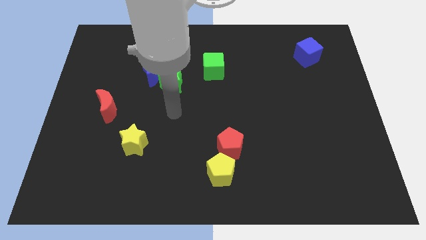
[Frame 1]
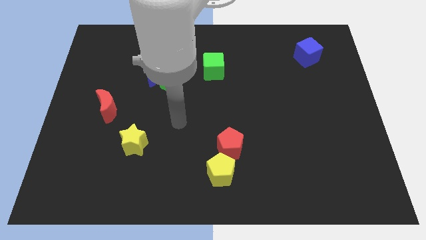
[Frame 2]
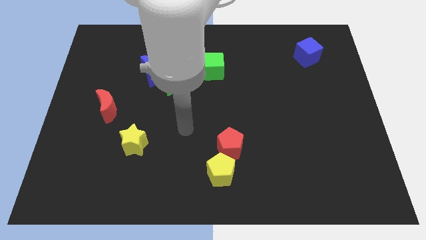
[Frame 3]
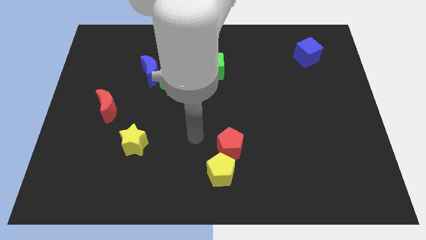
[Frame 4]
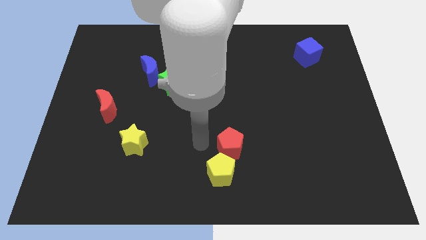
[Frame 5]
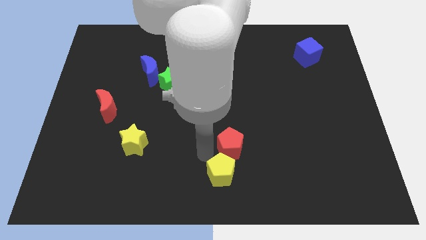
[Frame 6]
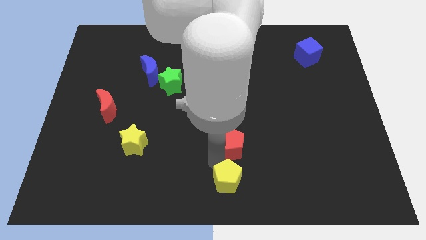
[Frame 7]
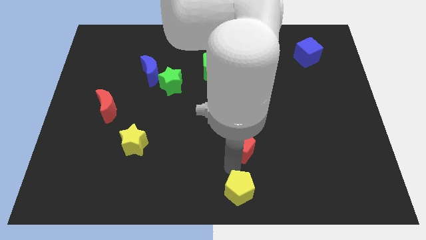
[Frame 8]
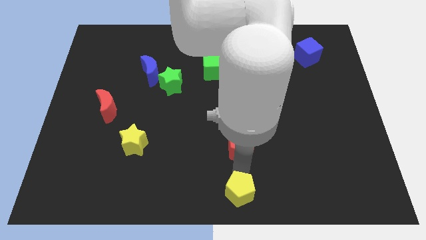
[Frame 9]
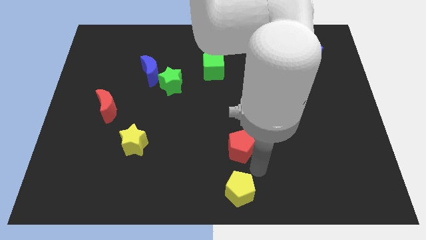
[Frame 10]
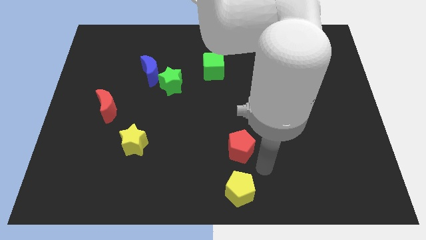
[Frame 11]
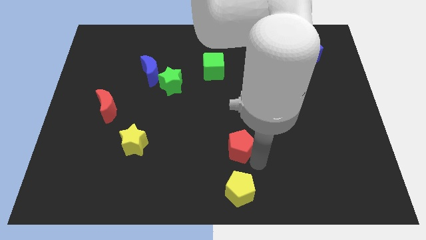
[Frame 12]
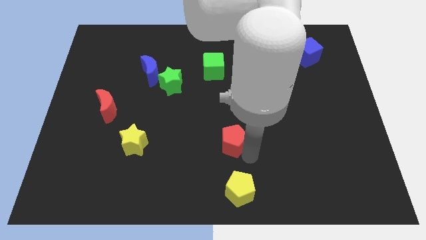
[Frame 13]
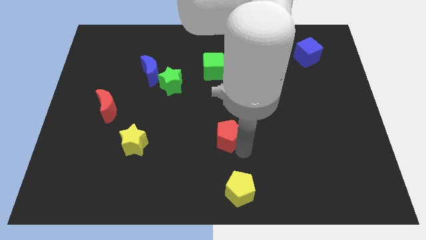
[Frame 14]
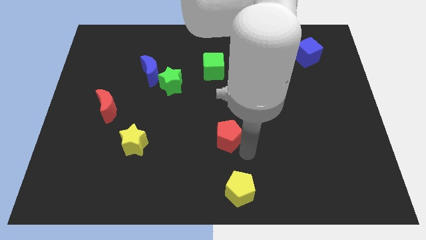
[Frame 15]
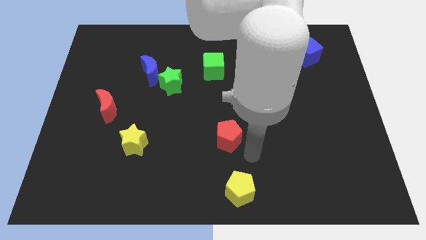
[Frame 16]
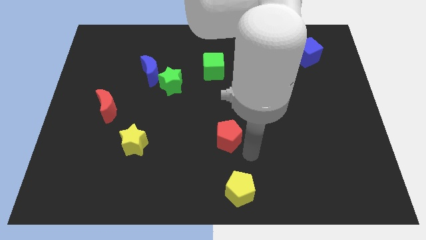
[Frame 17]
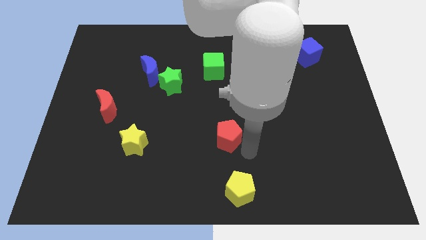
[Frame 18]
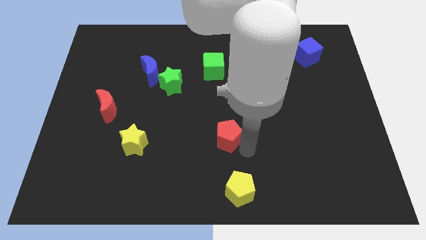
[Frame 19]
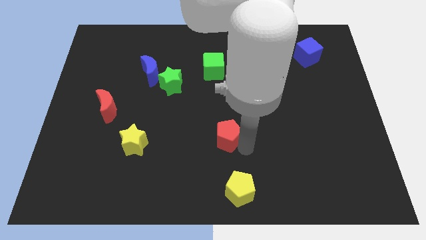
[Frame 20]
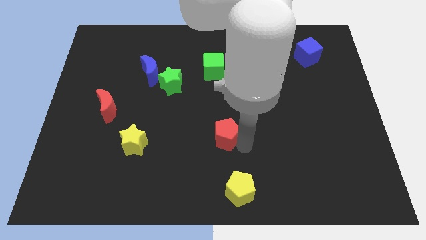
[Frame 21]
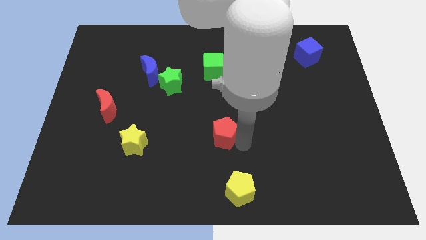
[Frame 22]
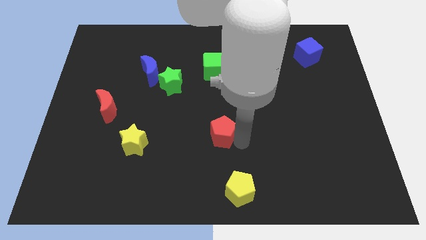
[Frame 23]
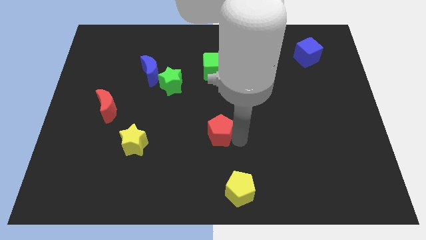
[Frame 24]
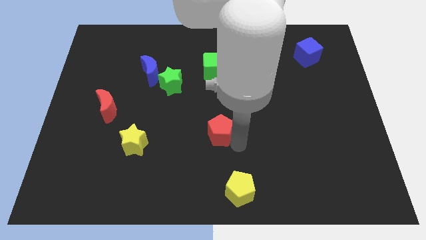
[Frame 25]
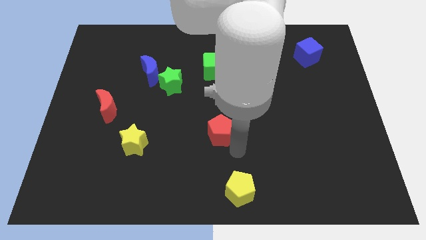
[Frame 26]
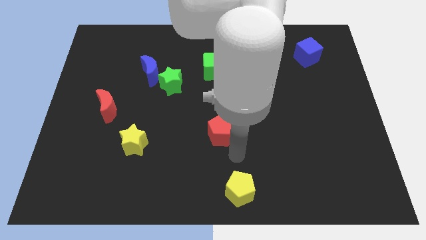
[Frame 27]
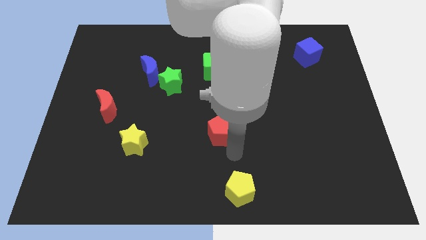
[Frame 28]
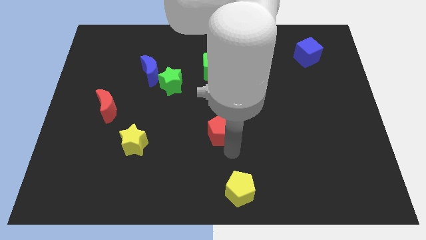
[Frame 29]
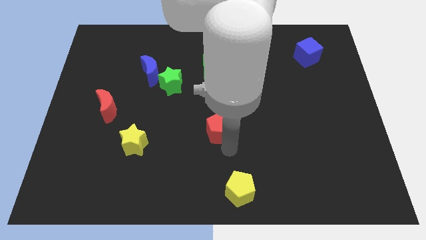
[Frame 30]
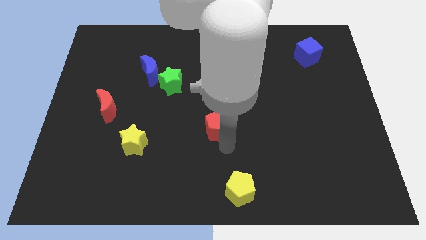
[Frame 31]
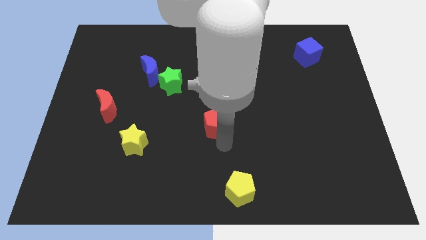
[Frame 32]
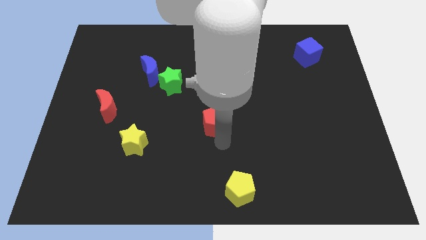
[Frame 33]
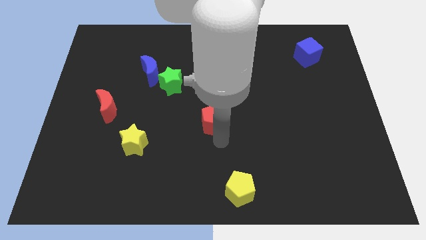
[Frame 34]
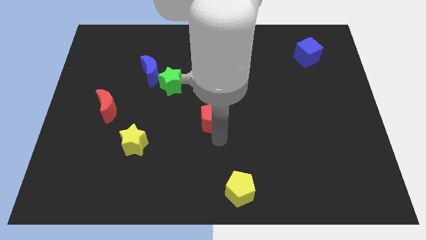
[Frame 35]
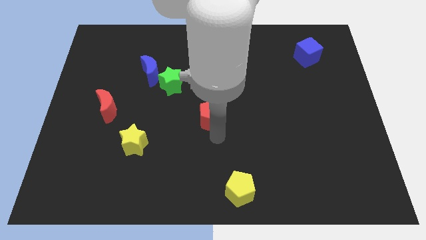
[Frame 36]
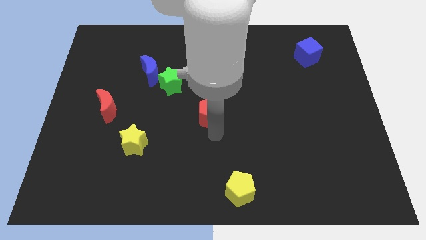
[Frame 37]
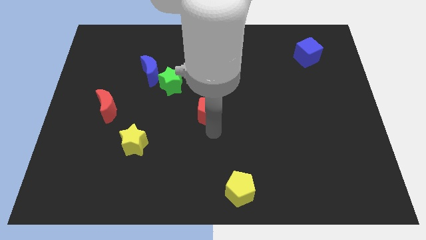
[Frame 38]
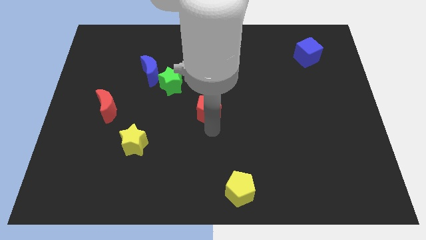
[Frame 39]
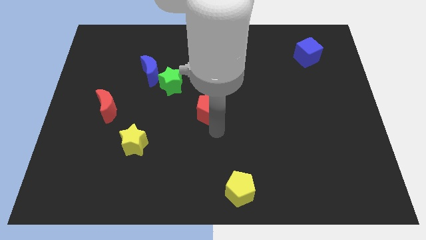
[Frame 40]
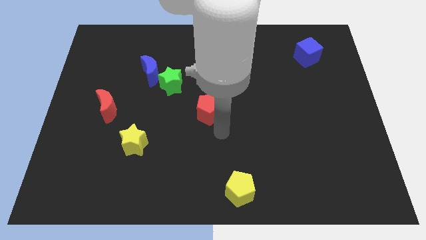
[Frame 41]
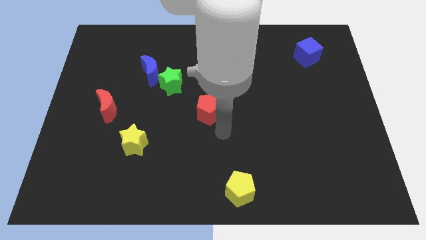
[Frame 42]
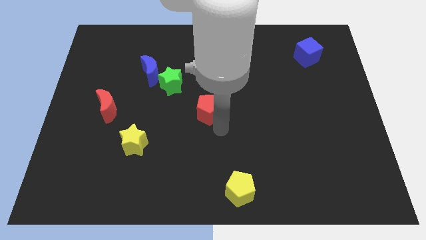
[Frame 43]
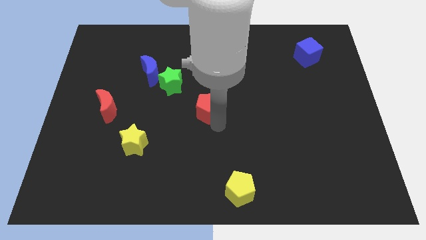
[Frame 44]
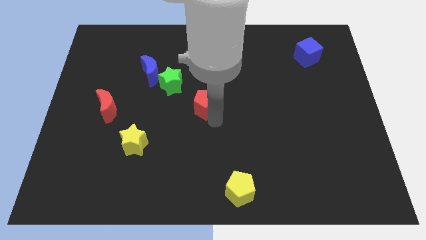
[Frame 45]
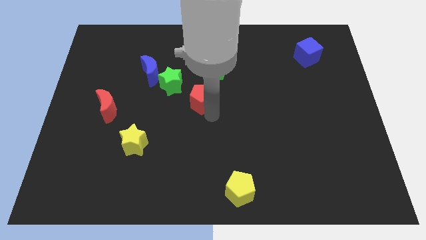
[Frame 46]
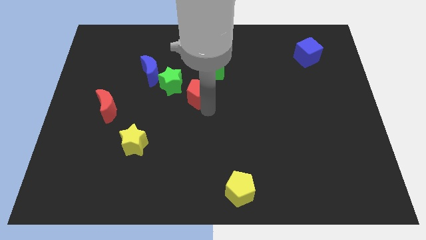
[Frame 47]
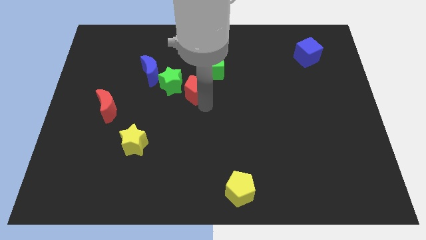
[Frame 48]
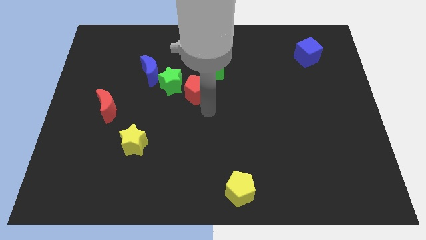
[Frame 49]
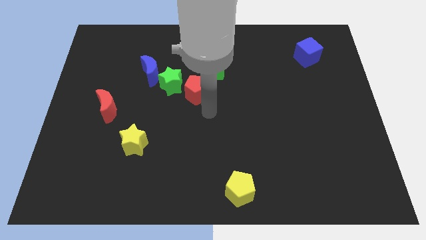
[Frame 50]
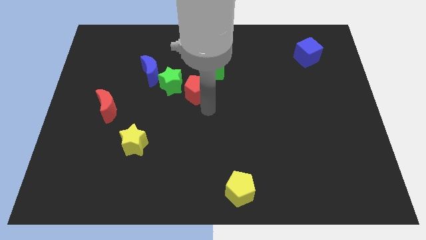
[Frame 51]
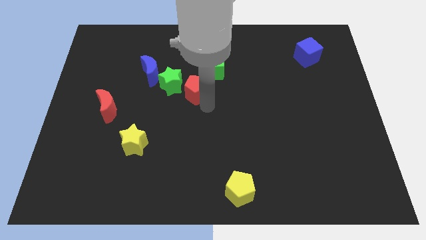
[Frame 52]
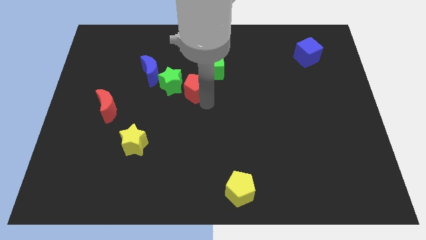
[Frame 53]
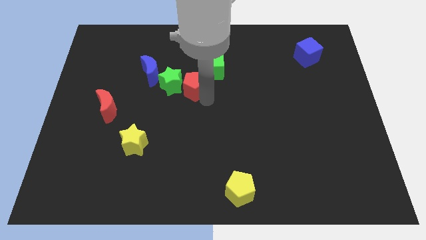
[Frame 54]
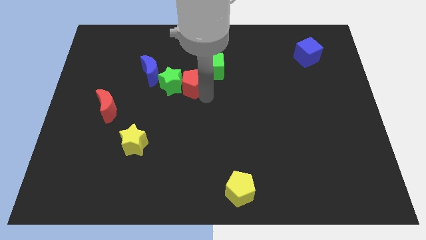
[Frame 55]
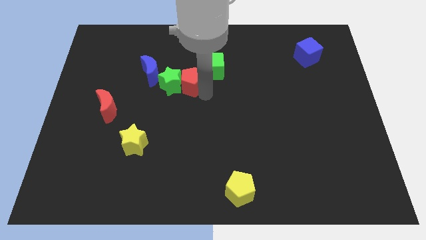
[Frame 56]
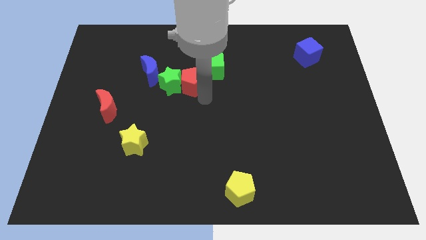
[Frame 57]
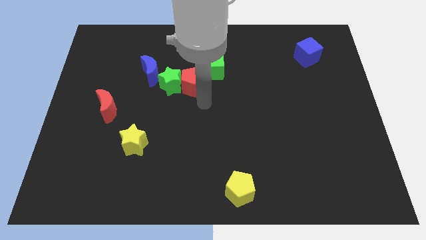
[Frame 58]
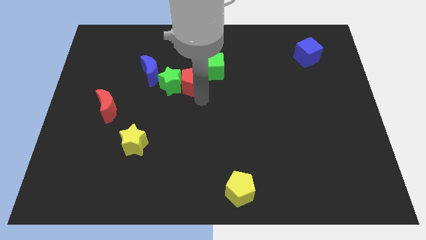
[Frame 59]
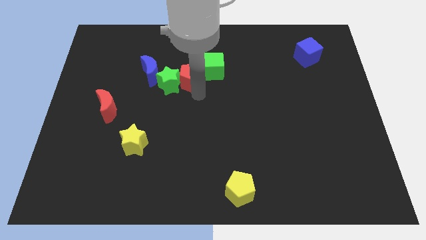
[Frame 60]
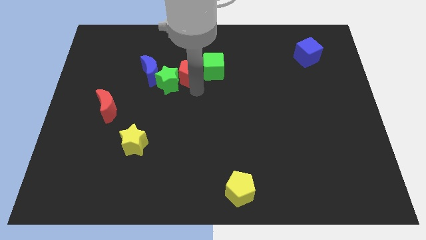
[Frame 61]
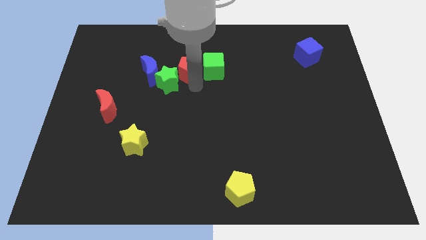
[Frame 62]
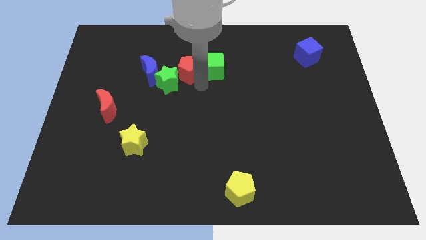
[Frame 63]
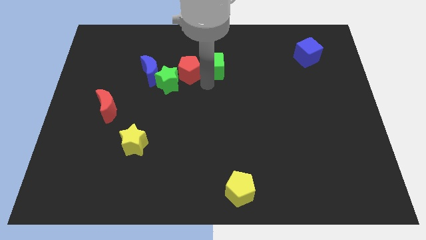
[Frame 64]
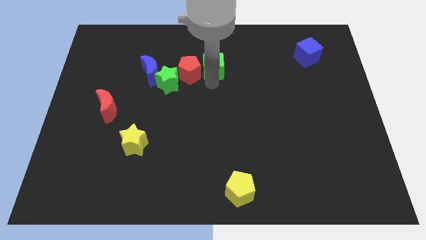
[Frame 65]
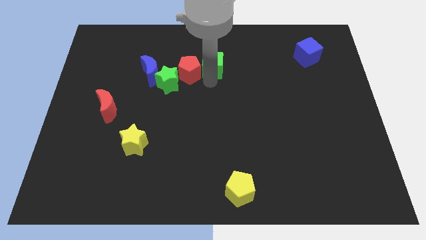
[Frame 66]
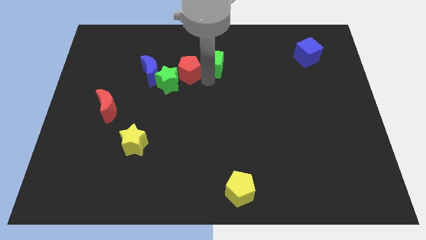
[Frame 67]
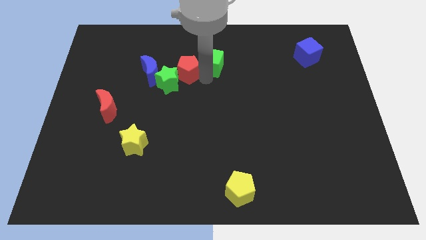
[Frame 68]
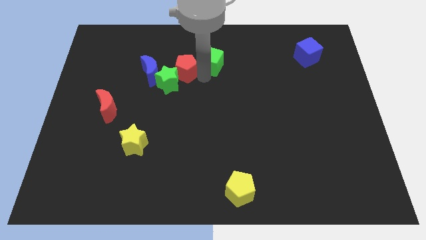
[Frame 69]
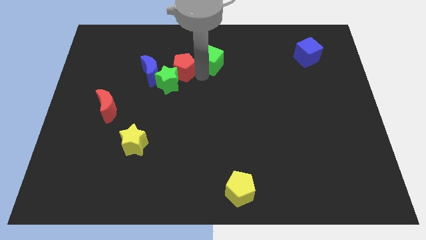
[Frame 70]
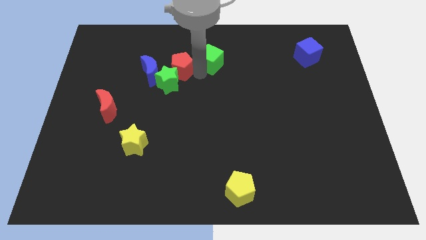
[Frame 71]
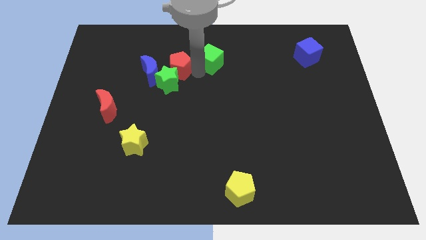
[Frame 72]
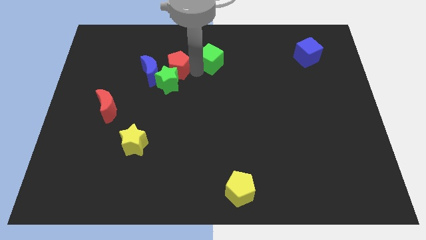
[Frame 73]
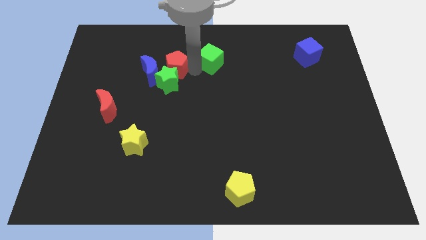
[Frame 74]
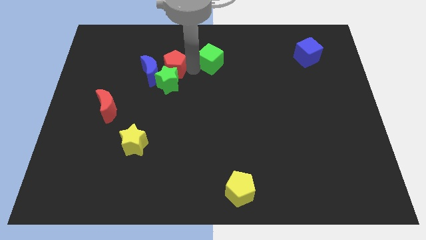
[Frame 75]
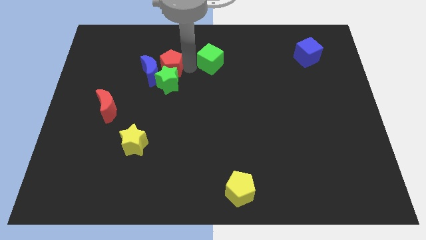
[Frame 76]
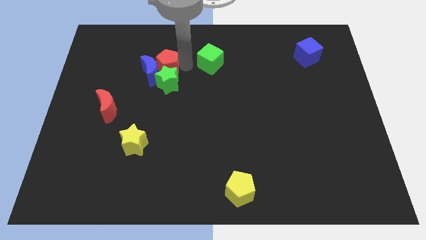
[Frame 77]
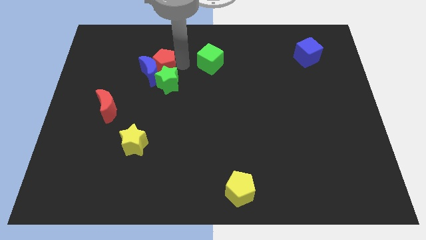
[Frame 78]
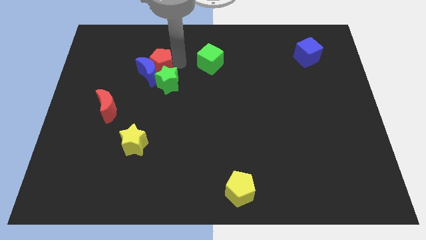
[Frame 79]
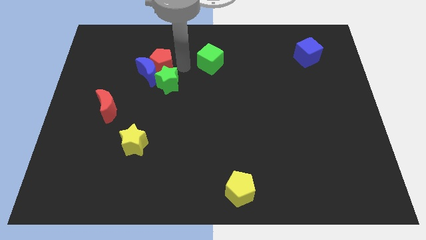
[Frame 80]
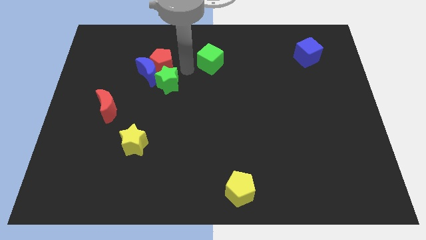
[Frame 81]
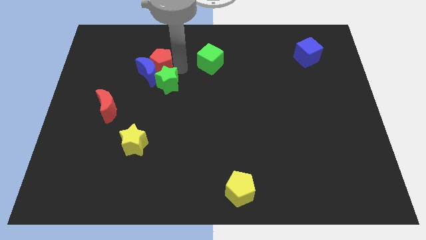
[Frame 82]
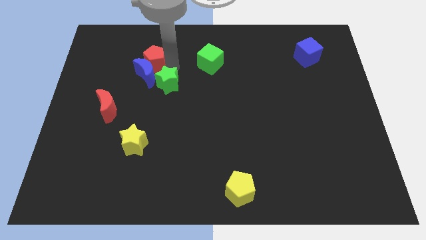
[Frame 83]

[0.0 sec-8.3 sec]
move the red pentagon to the top left of the blue moon
